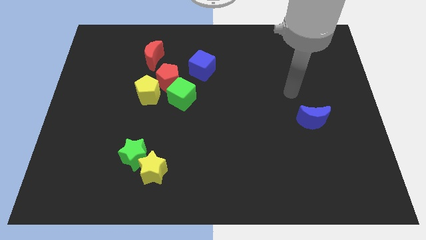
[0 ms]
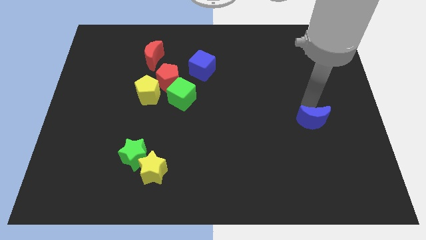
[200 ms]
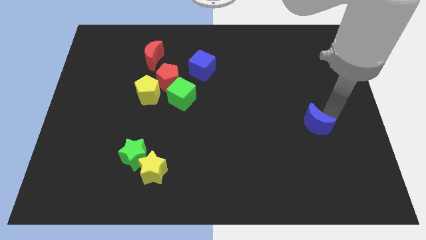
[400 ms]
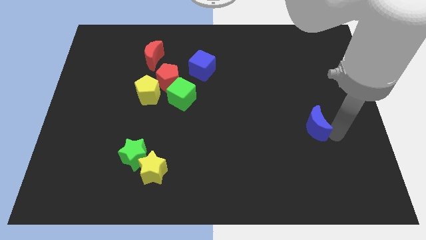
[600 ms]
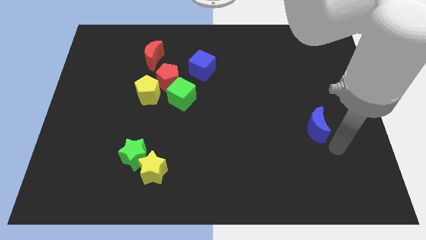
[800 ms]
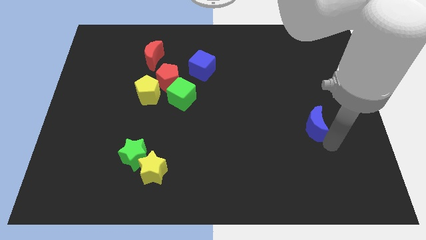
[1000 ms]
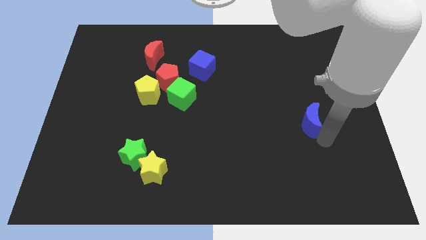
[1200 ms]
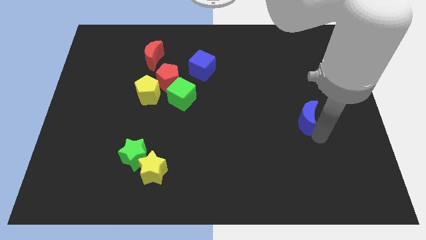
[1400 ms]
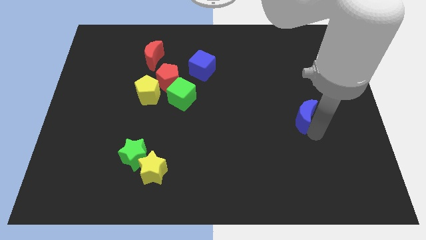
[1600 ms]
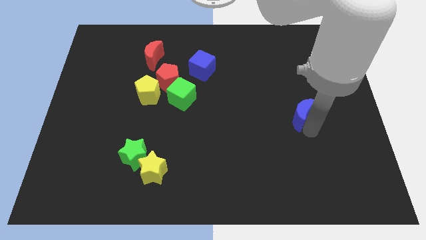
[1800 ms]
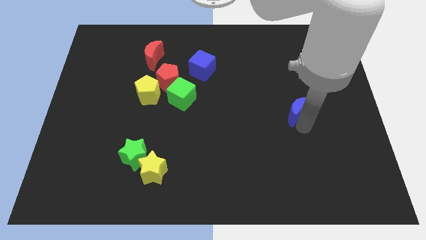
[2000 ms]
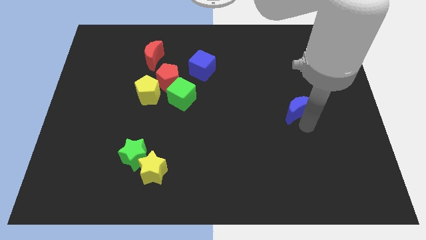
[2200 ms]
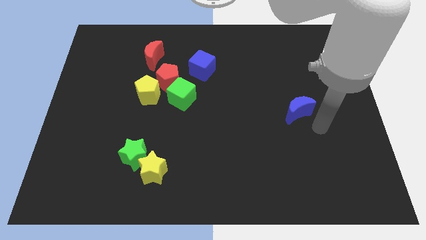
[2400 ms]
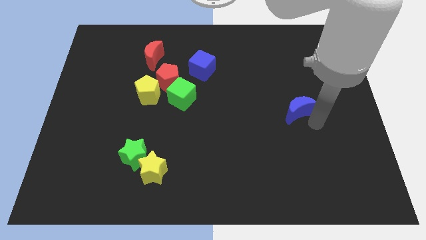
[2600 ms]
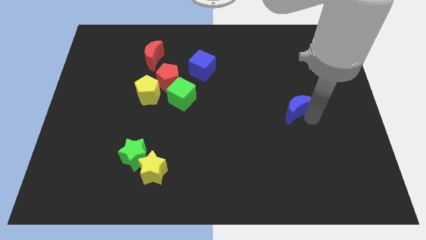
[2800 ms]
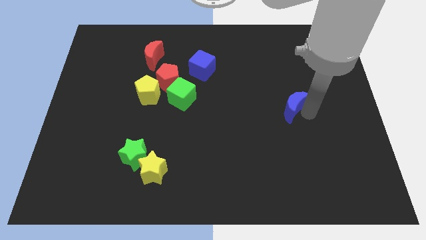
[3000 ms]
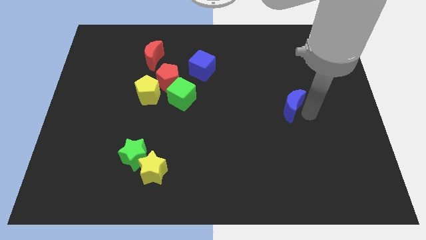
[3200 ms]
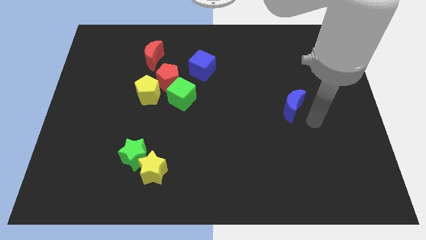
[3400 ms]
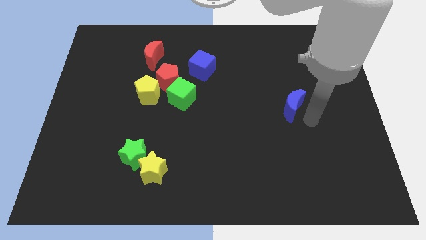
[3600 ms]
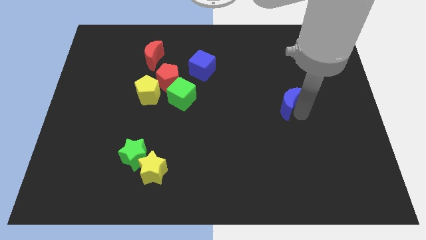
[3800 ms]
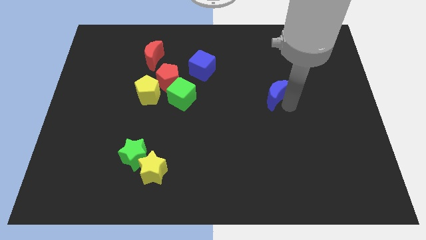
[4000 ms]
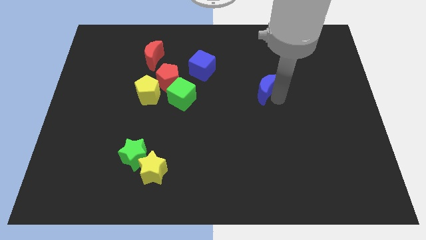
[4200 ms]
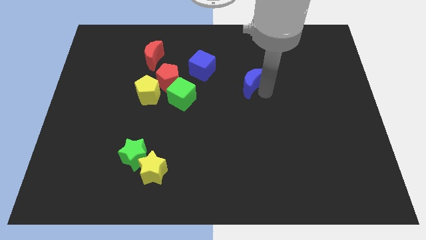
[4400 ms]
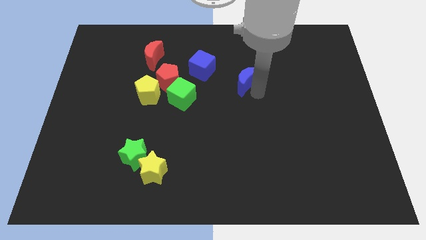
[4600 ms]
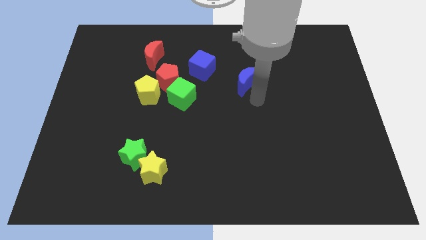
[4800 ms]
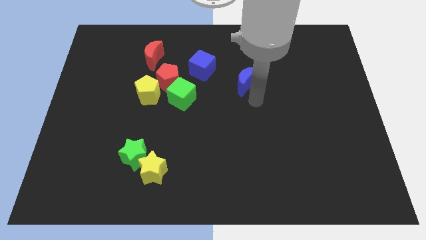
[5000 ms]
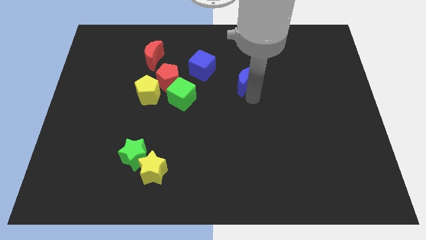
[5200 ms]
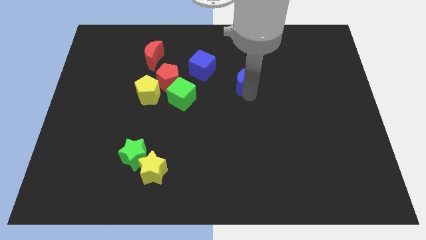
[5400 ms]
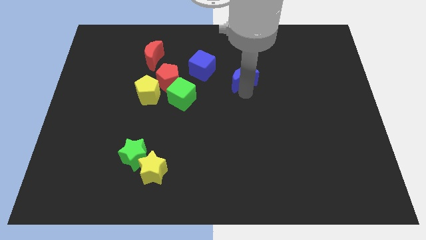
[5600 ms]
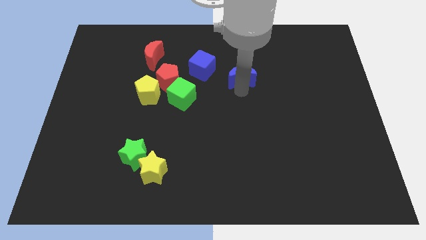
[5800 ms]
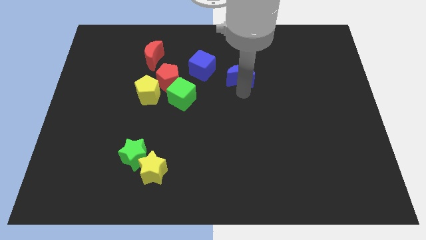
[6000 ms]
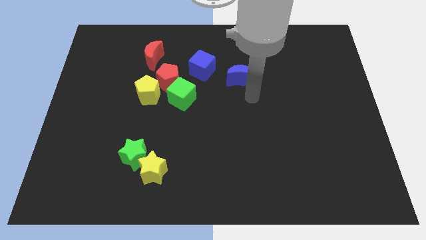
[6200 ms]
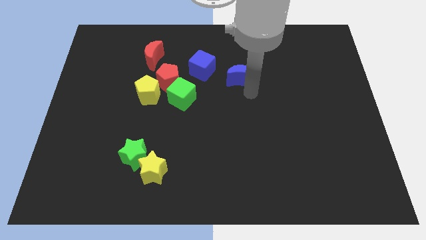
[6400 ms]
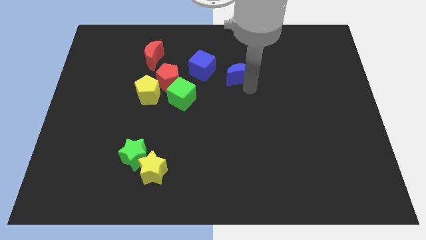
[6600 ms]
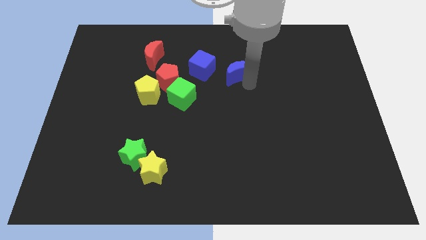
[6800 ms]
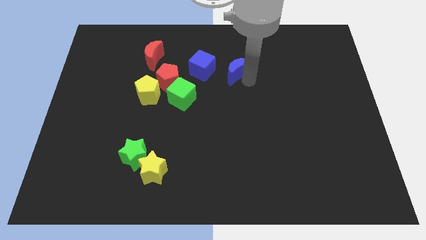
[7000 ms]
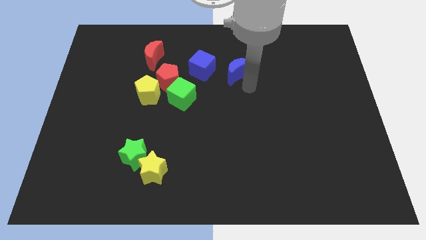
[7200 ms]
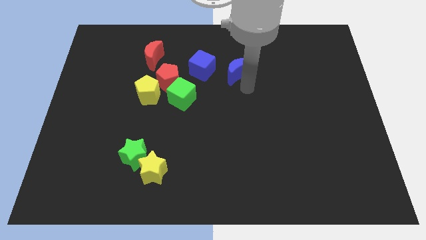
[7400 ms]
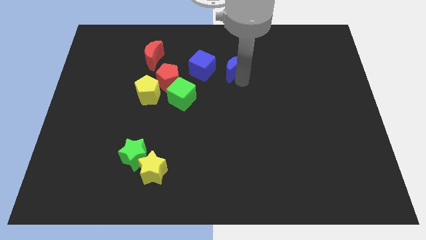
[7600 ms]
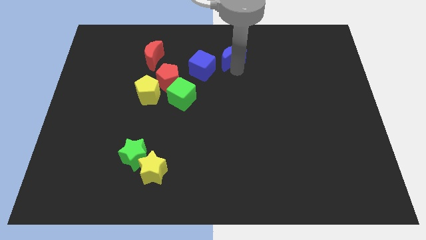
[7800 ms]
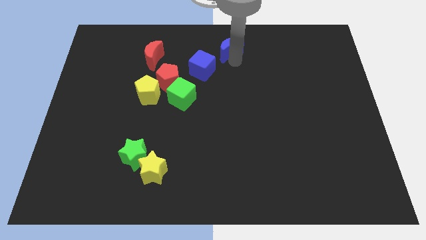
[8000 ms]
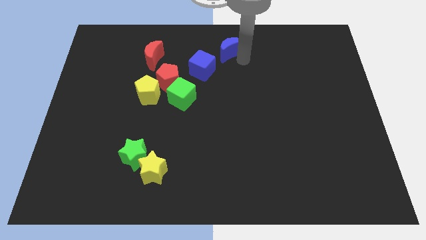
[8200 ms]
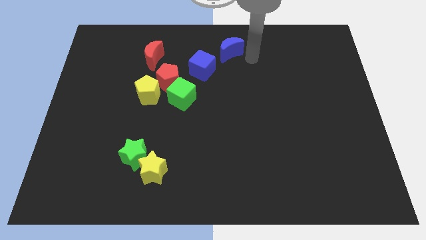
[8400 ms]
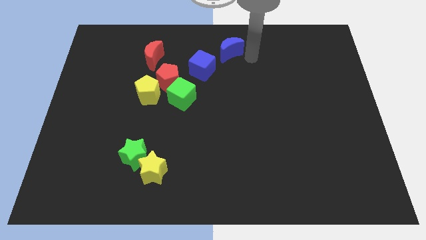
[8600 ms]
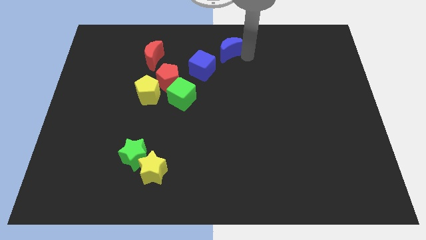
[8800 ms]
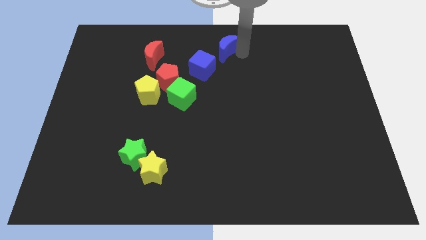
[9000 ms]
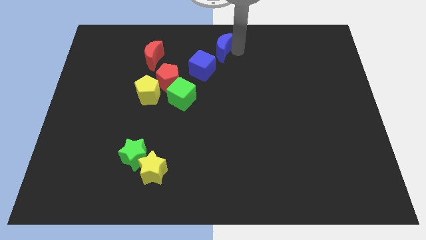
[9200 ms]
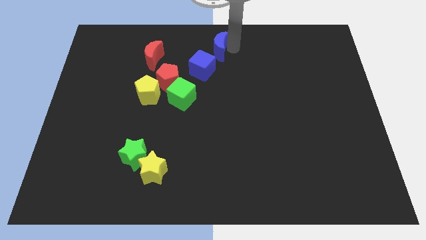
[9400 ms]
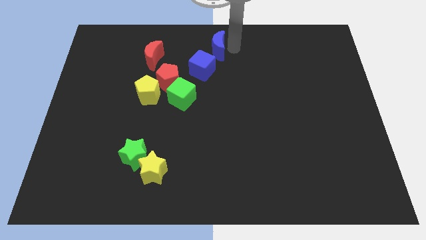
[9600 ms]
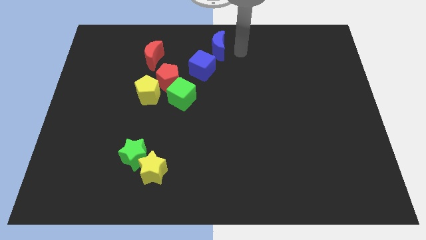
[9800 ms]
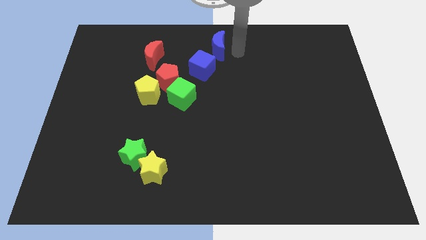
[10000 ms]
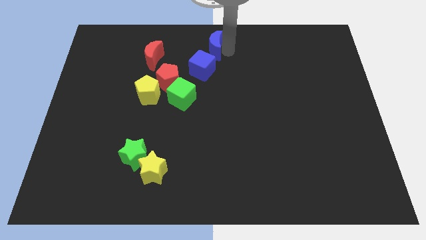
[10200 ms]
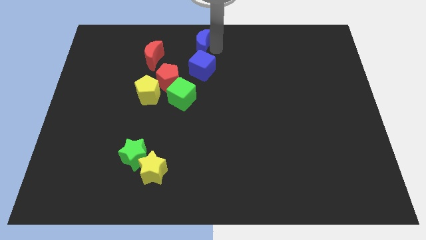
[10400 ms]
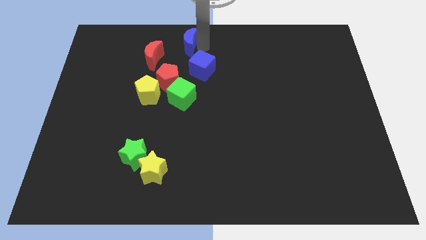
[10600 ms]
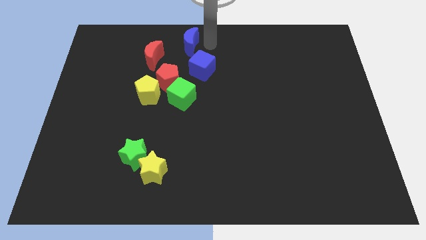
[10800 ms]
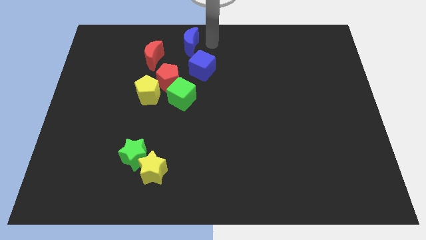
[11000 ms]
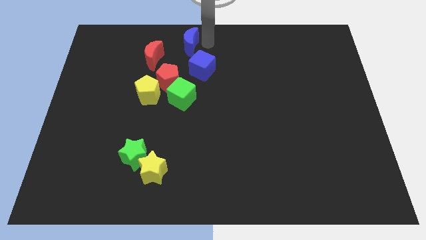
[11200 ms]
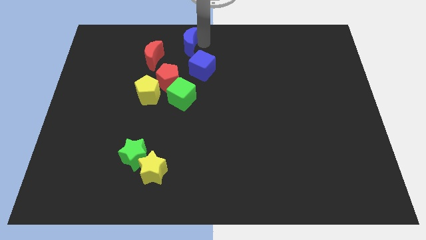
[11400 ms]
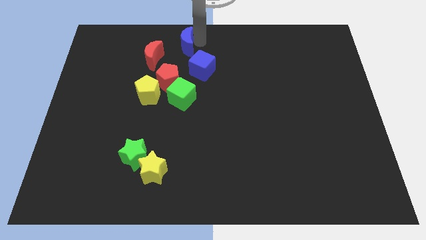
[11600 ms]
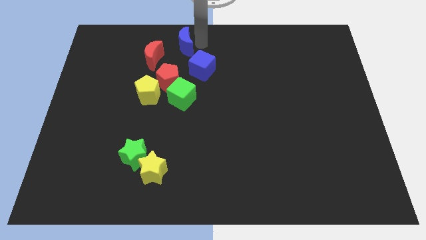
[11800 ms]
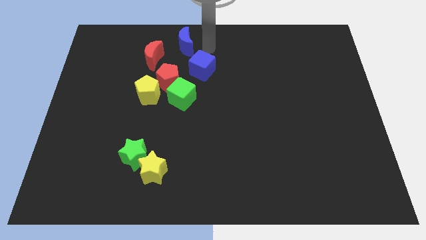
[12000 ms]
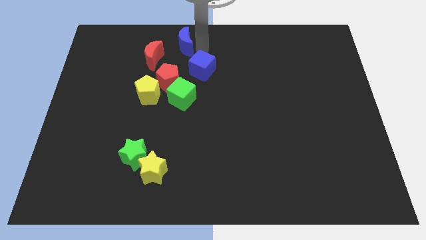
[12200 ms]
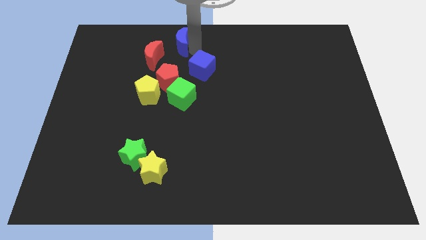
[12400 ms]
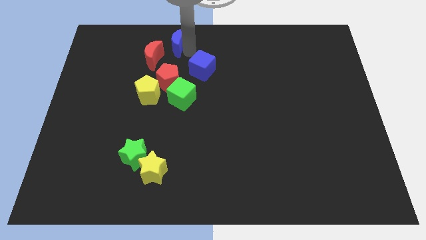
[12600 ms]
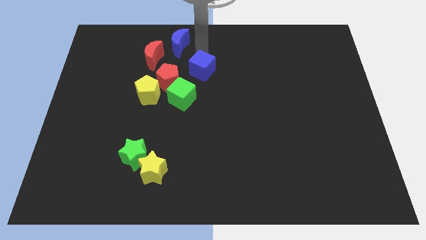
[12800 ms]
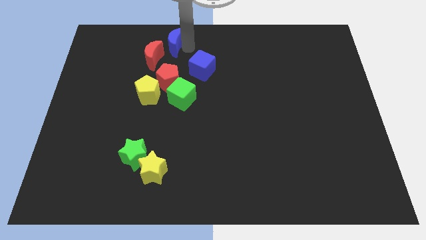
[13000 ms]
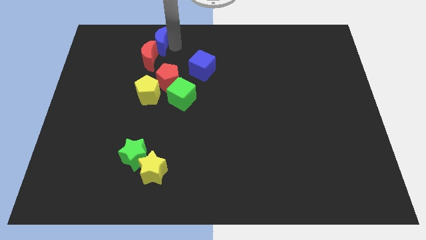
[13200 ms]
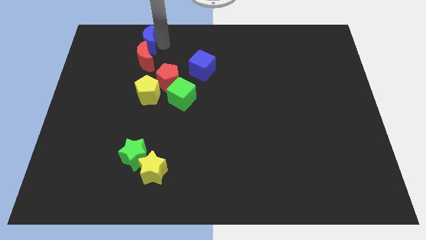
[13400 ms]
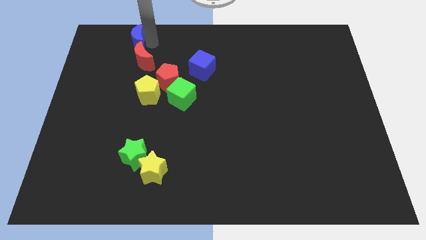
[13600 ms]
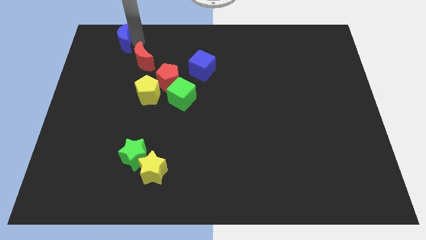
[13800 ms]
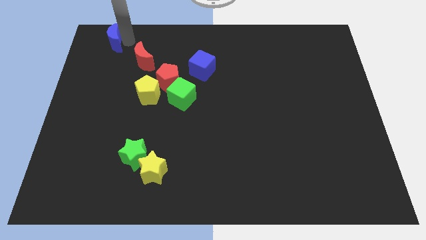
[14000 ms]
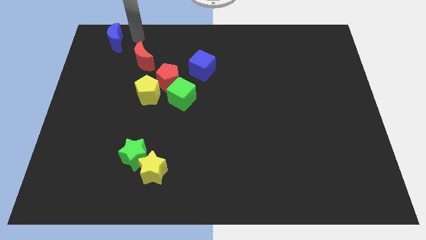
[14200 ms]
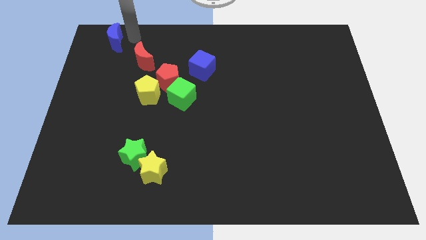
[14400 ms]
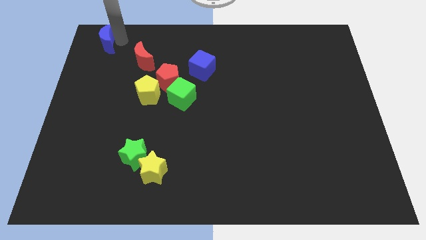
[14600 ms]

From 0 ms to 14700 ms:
put the blue moon to the top left
